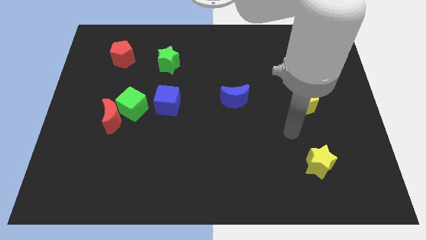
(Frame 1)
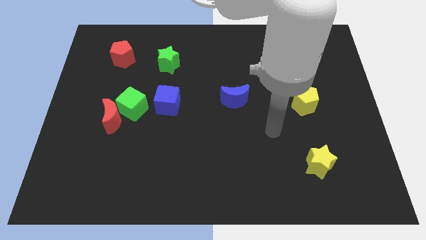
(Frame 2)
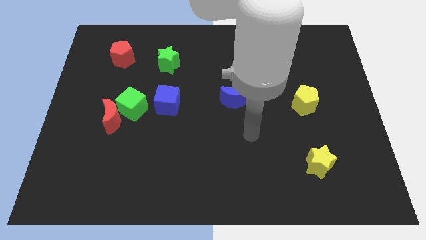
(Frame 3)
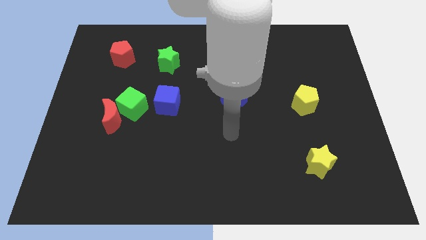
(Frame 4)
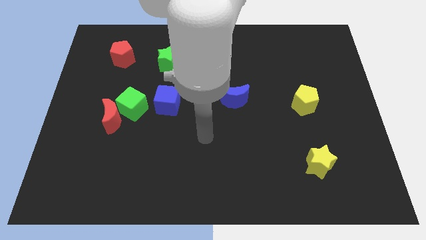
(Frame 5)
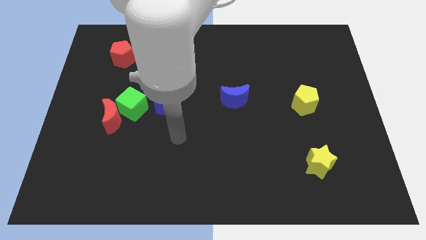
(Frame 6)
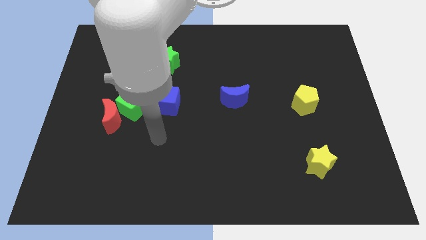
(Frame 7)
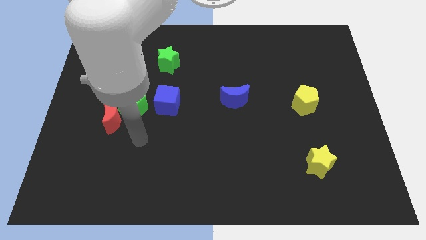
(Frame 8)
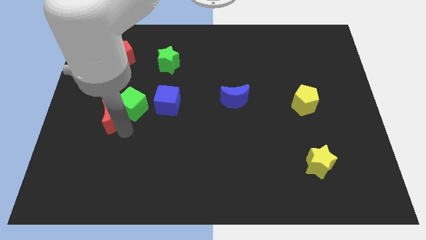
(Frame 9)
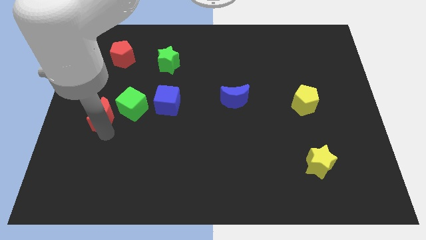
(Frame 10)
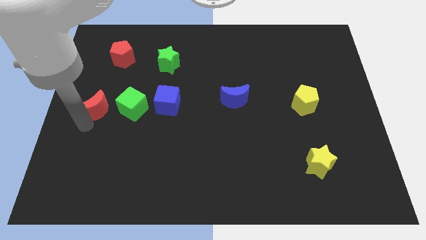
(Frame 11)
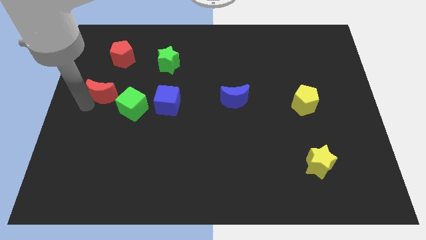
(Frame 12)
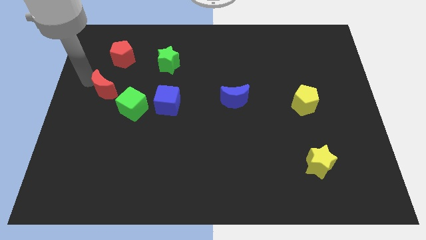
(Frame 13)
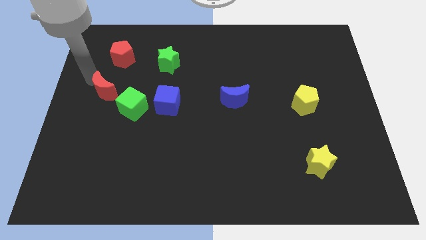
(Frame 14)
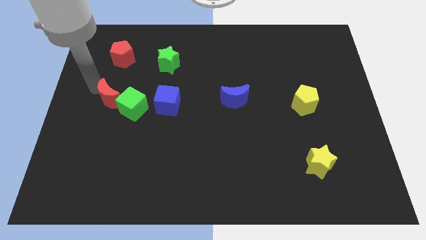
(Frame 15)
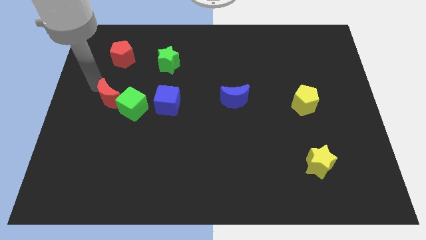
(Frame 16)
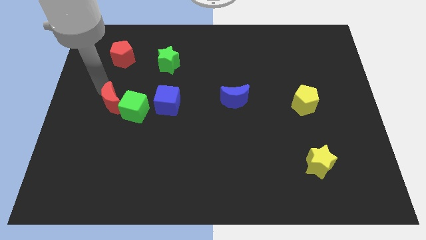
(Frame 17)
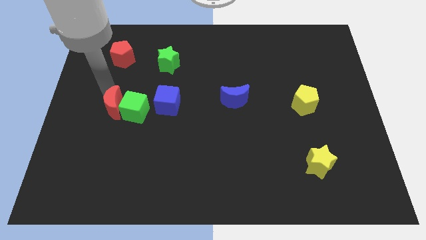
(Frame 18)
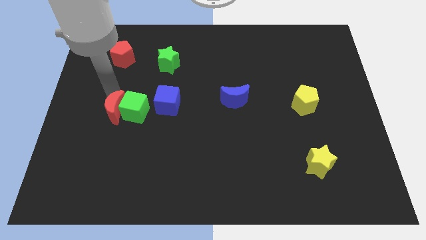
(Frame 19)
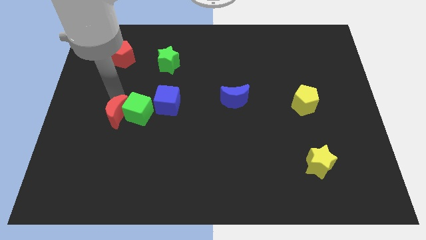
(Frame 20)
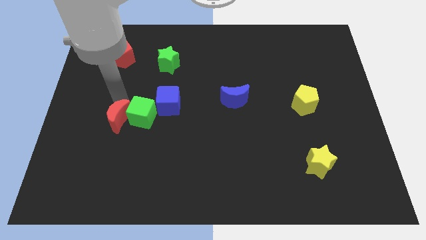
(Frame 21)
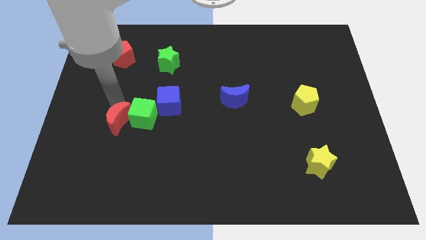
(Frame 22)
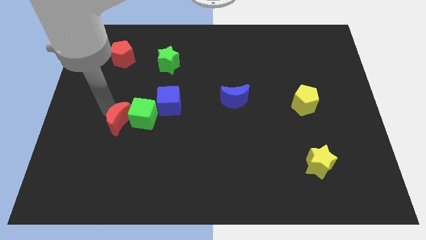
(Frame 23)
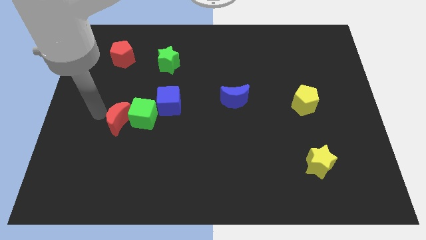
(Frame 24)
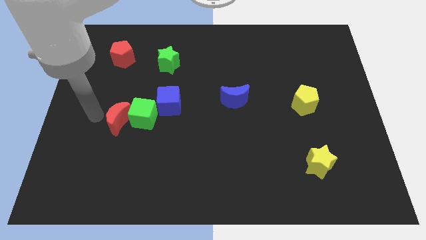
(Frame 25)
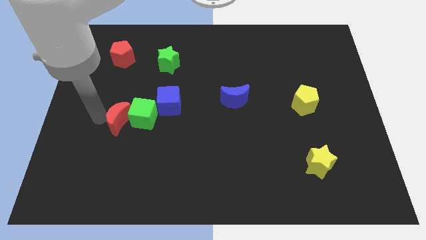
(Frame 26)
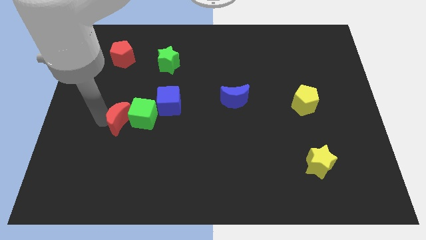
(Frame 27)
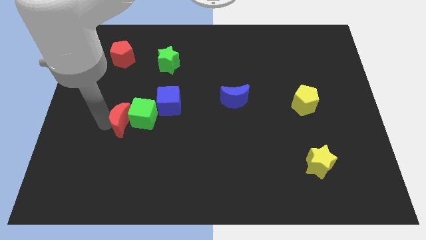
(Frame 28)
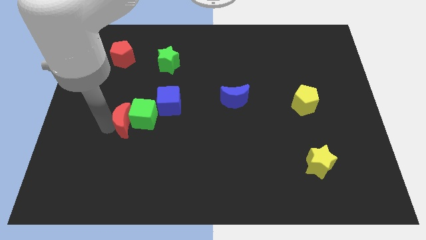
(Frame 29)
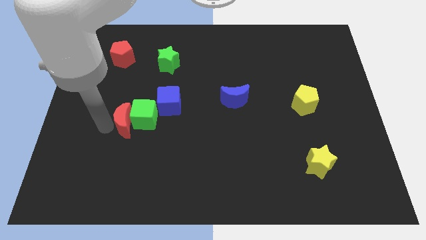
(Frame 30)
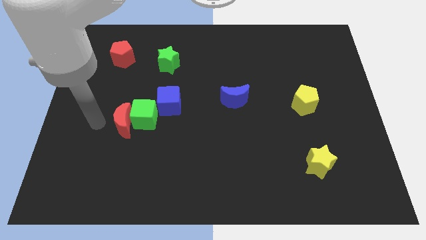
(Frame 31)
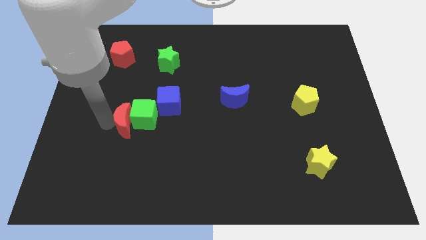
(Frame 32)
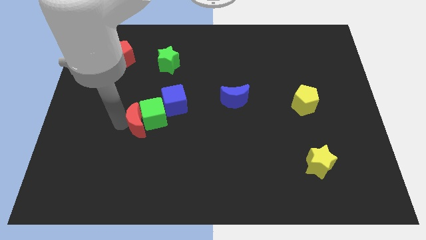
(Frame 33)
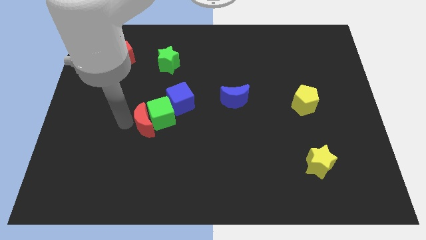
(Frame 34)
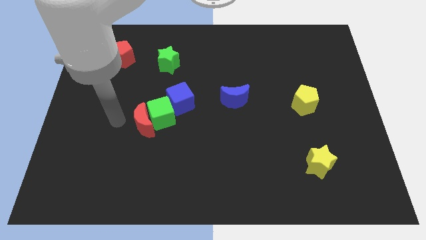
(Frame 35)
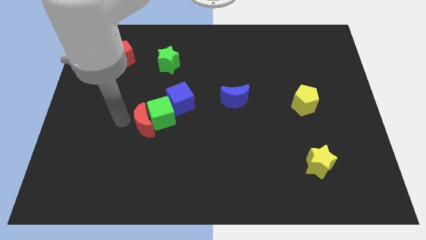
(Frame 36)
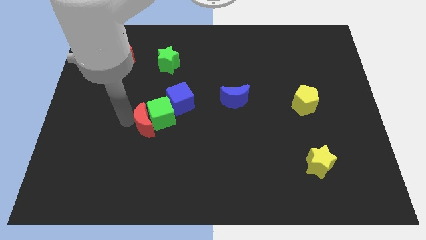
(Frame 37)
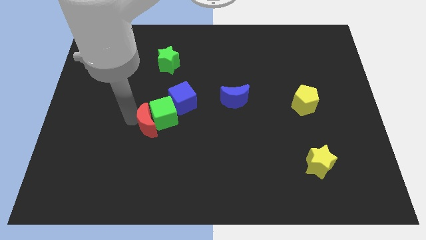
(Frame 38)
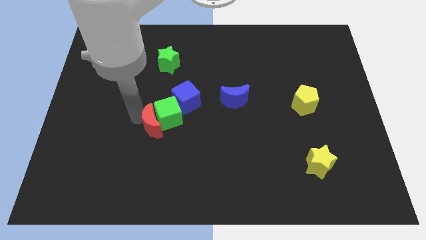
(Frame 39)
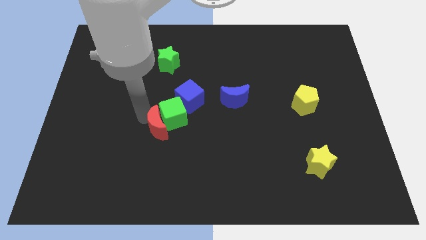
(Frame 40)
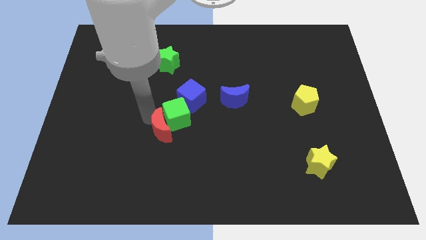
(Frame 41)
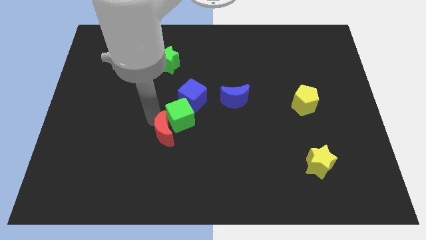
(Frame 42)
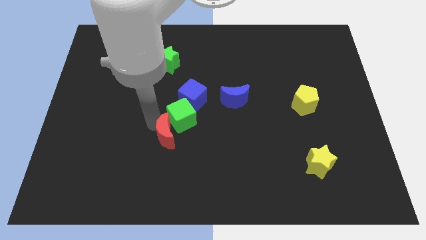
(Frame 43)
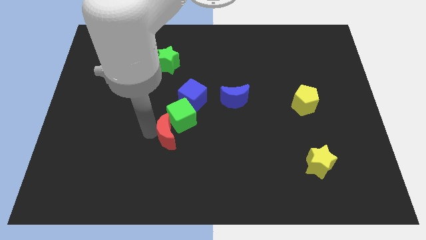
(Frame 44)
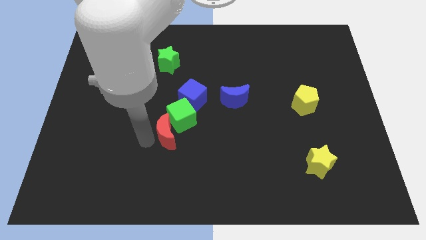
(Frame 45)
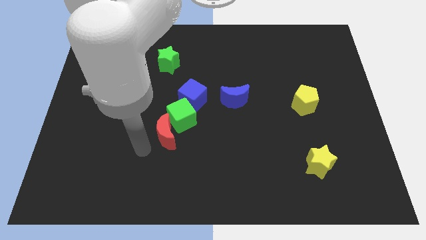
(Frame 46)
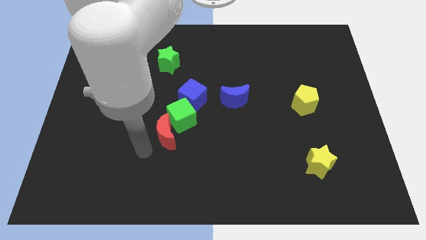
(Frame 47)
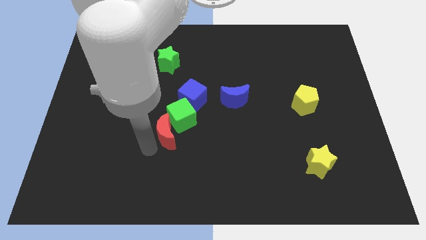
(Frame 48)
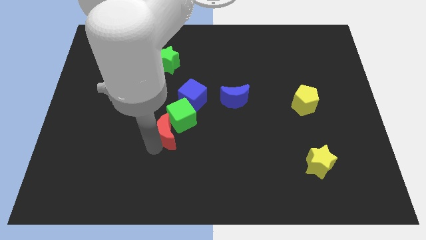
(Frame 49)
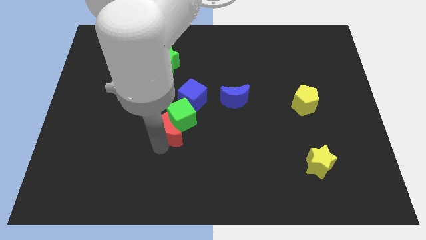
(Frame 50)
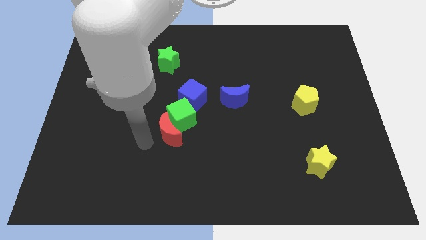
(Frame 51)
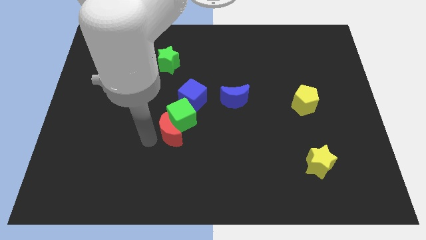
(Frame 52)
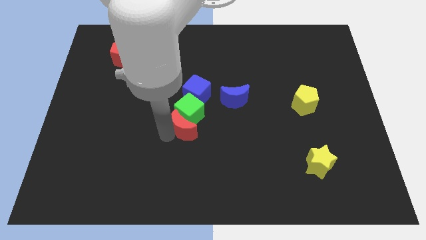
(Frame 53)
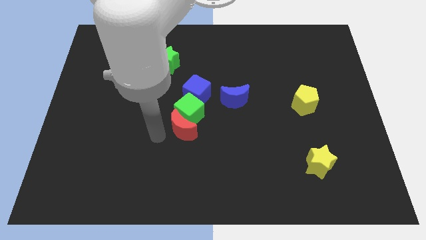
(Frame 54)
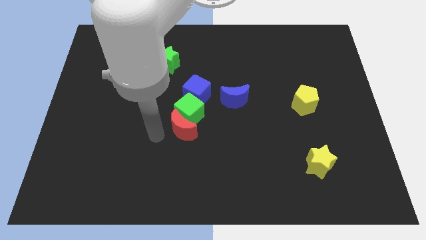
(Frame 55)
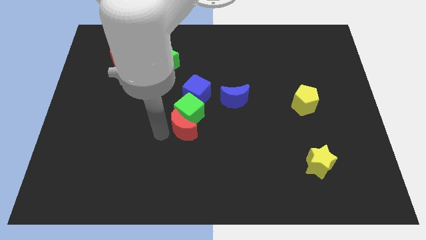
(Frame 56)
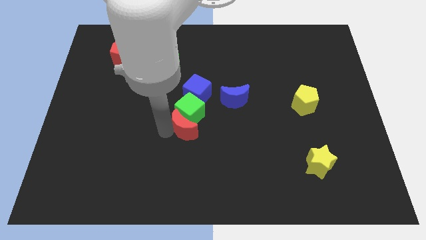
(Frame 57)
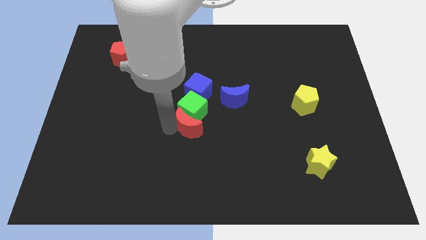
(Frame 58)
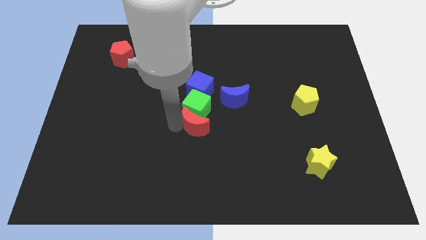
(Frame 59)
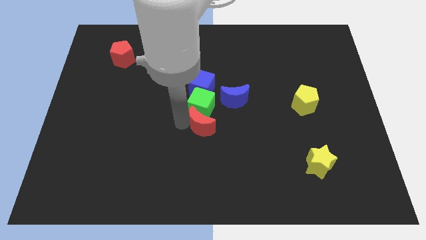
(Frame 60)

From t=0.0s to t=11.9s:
slide the red moon to the right

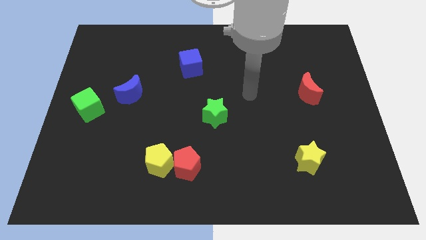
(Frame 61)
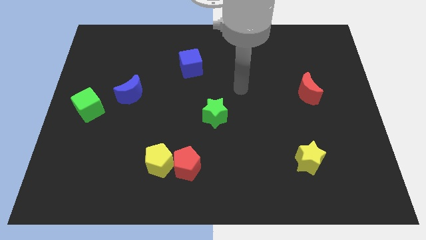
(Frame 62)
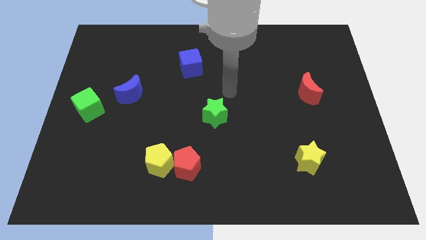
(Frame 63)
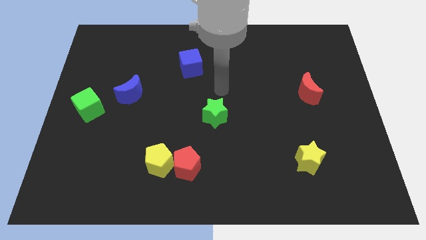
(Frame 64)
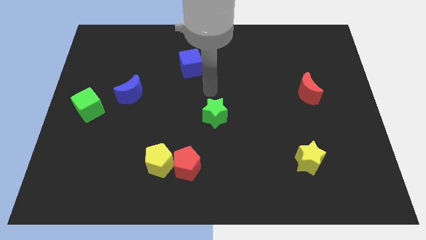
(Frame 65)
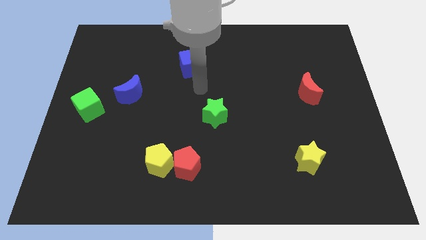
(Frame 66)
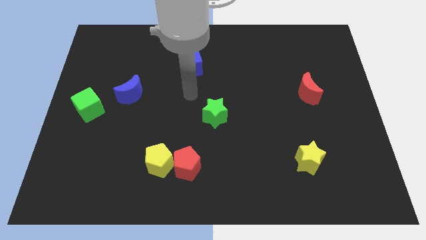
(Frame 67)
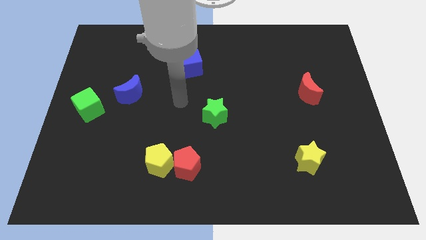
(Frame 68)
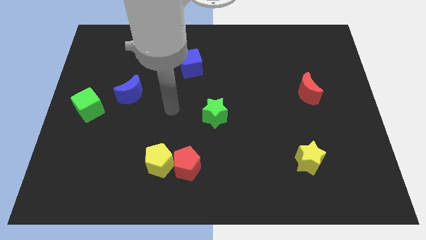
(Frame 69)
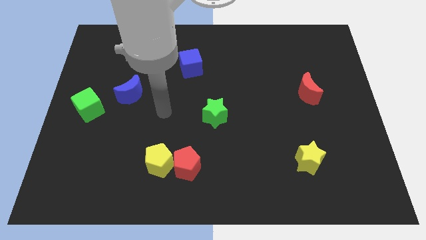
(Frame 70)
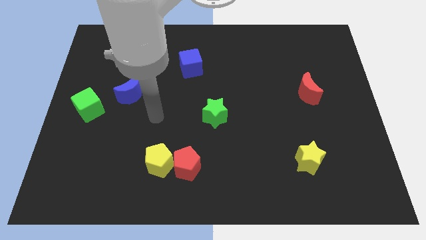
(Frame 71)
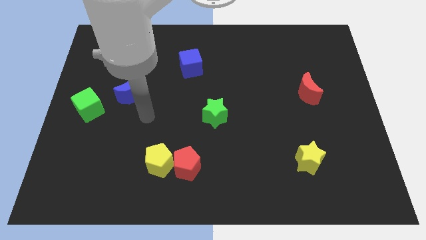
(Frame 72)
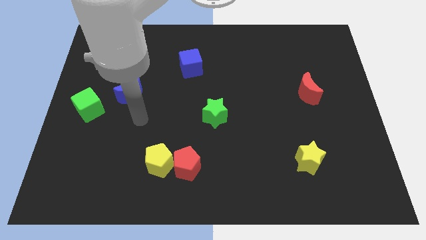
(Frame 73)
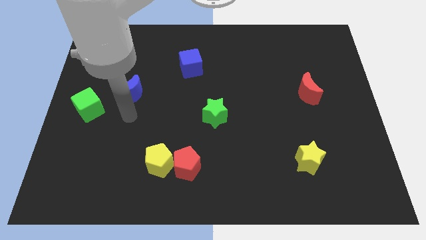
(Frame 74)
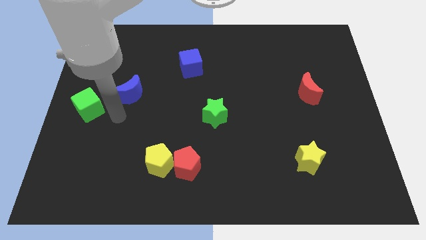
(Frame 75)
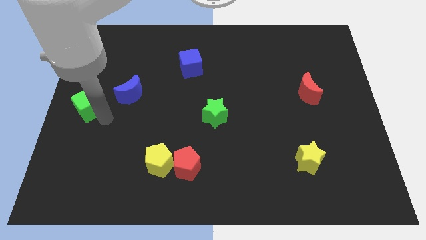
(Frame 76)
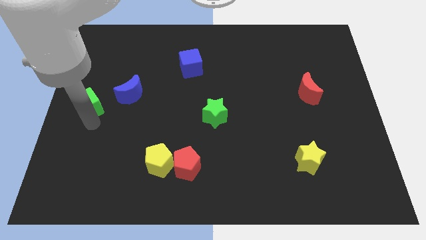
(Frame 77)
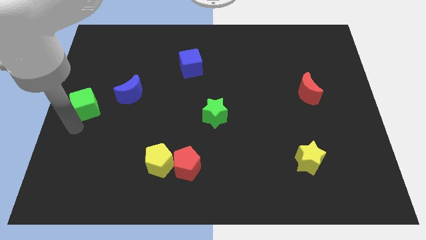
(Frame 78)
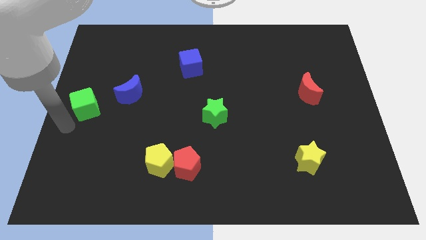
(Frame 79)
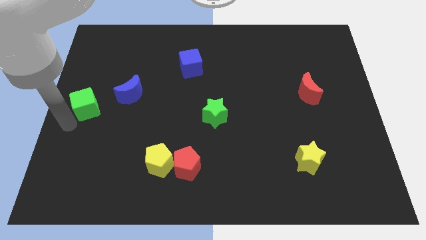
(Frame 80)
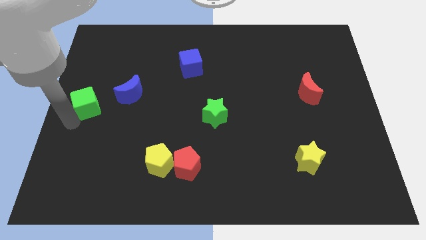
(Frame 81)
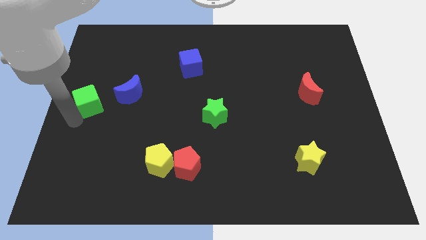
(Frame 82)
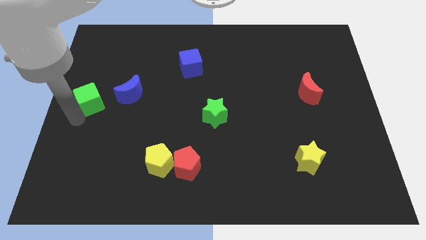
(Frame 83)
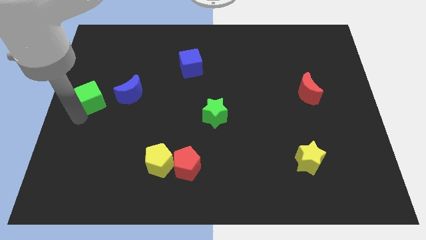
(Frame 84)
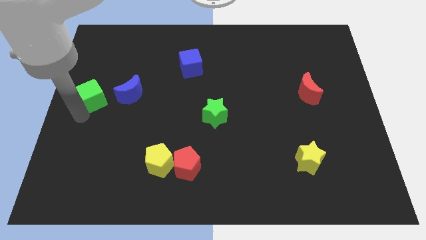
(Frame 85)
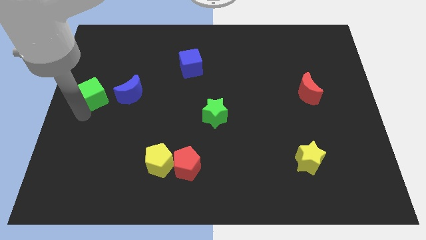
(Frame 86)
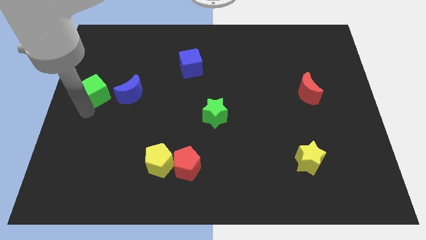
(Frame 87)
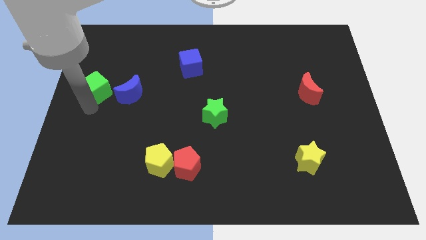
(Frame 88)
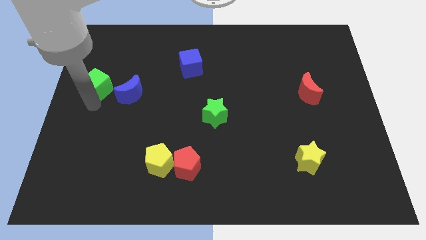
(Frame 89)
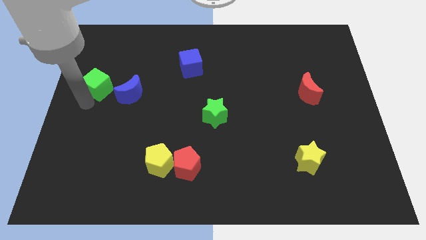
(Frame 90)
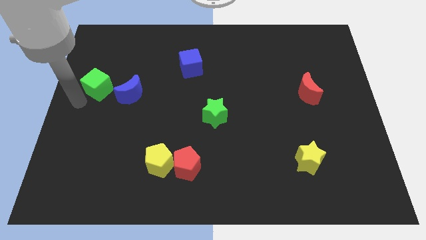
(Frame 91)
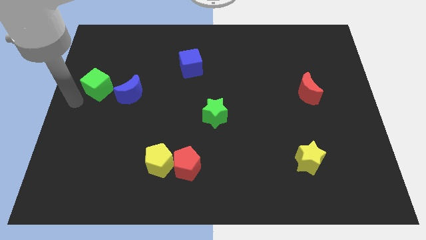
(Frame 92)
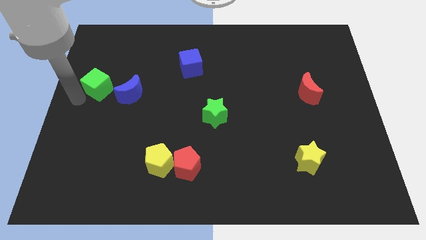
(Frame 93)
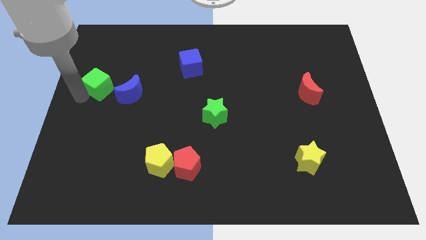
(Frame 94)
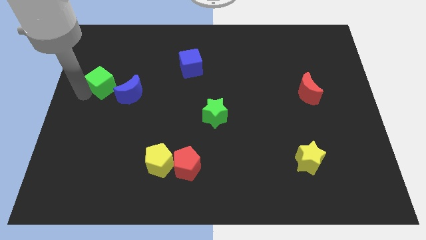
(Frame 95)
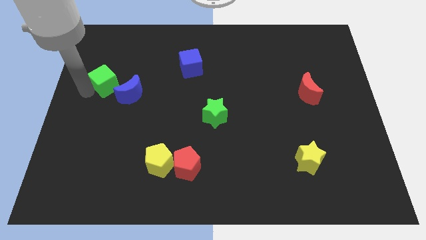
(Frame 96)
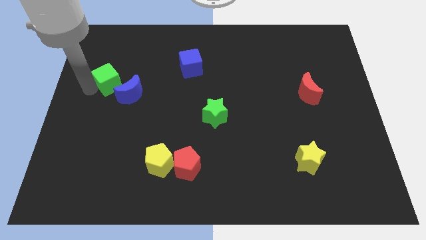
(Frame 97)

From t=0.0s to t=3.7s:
push the green cube a little upwards and right diagonally
